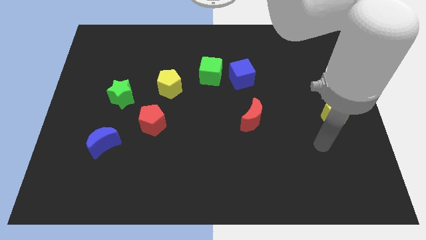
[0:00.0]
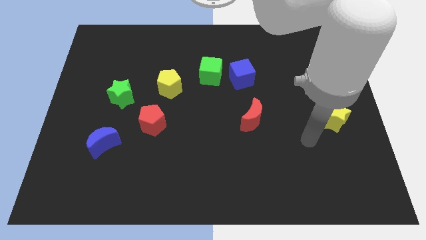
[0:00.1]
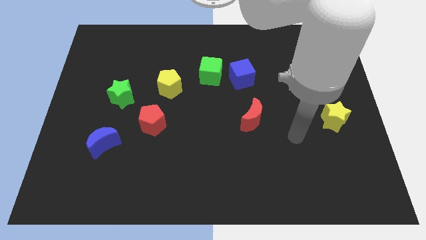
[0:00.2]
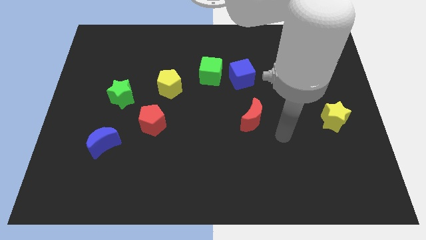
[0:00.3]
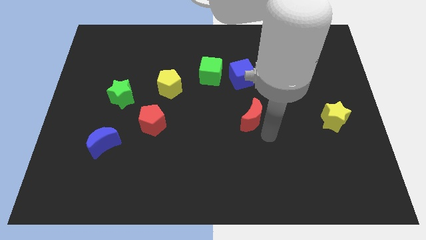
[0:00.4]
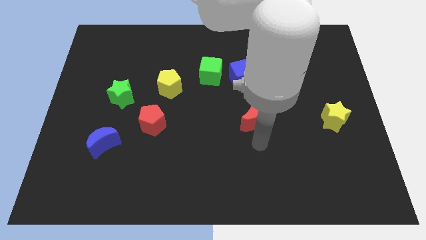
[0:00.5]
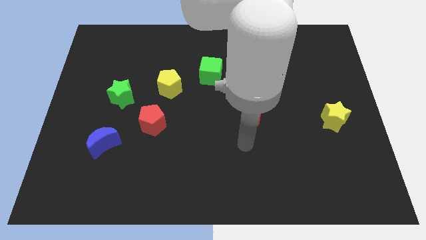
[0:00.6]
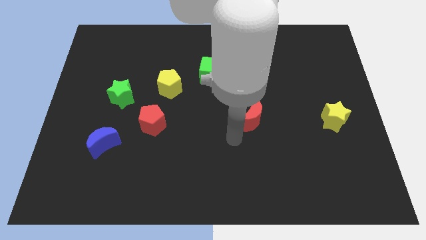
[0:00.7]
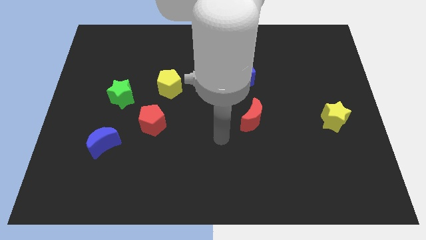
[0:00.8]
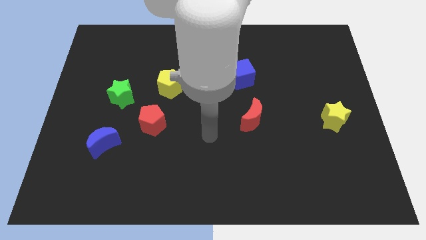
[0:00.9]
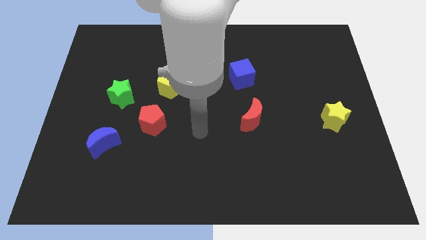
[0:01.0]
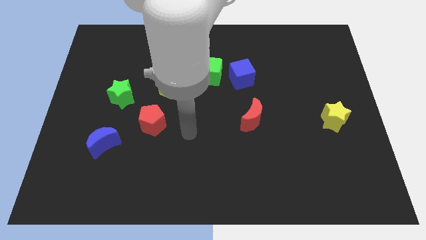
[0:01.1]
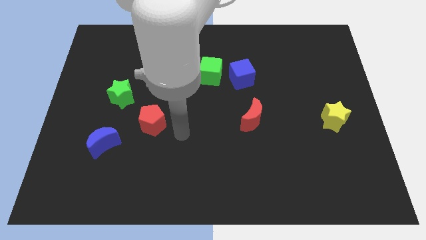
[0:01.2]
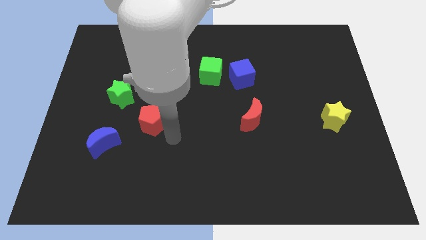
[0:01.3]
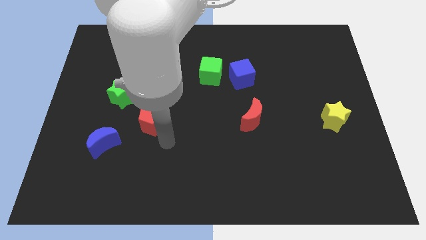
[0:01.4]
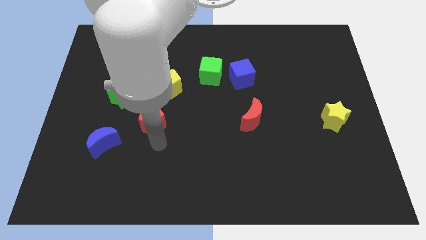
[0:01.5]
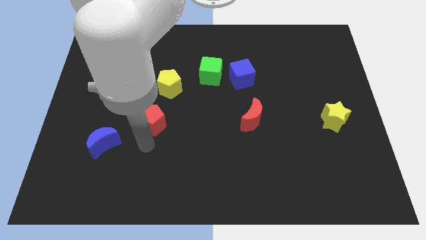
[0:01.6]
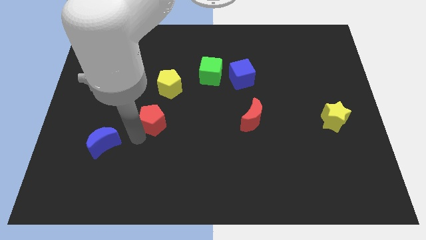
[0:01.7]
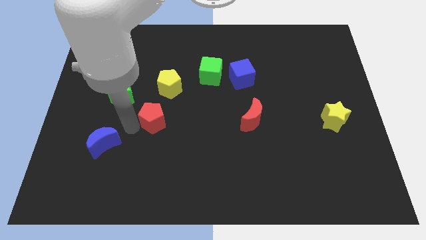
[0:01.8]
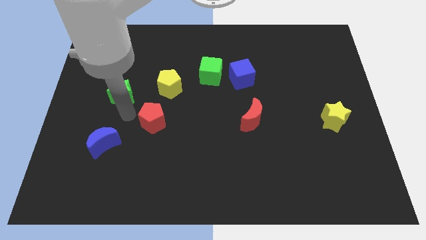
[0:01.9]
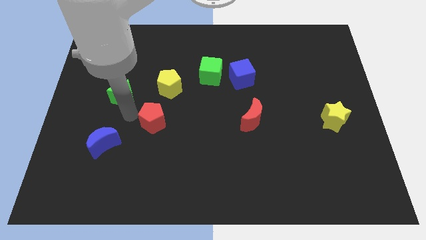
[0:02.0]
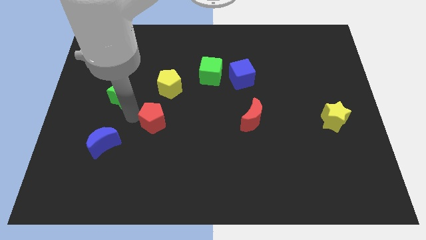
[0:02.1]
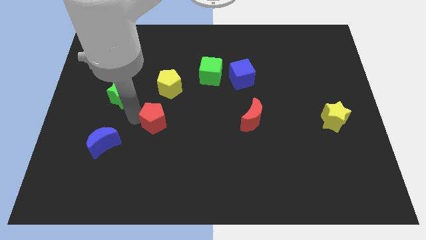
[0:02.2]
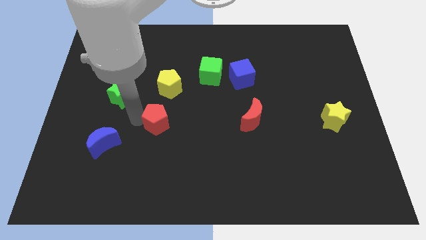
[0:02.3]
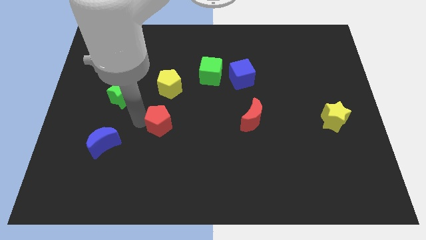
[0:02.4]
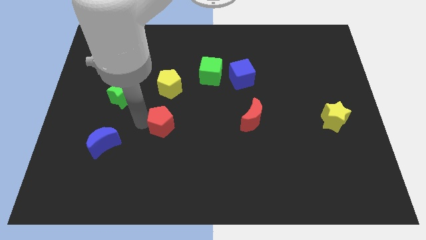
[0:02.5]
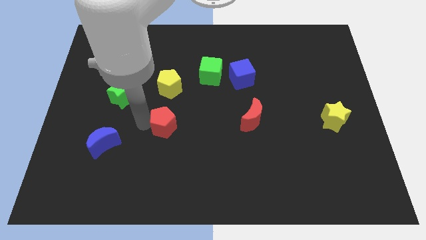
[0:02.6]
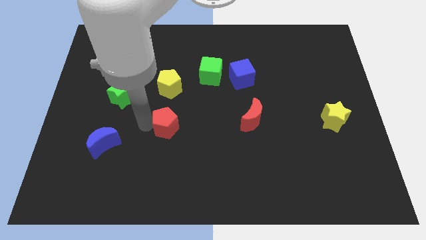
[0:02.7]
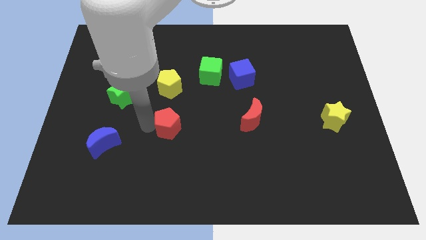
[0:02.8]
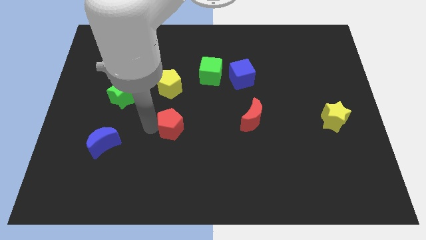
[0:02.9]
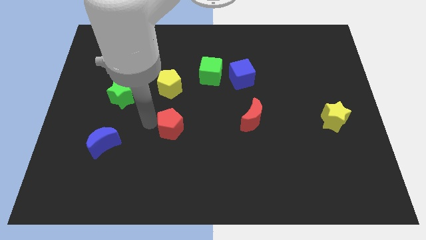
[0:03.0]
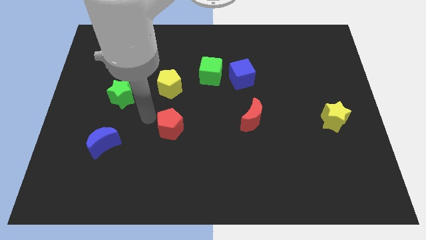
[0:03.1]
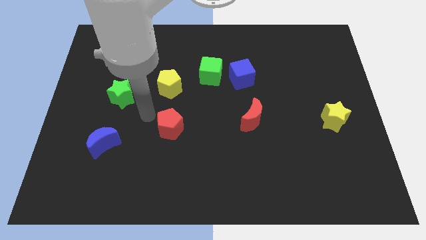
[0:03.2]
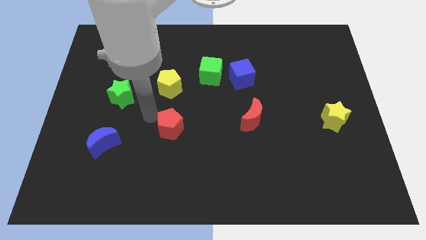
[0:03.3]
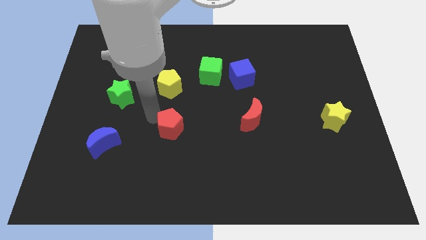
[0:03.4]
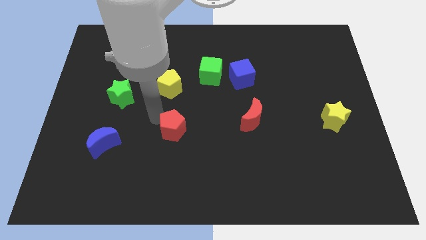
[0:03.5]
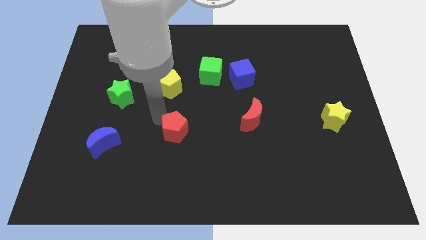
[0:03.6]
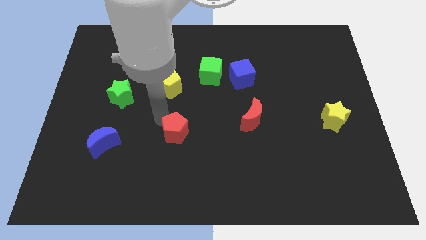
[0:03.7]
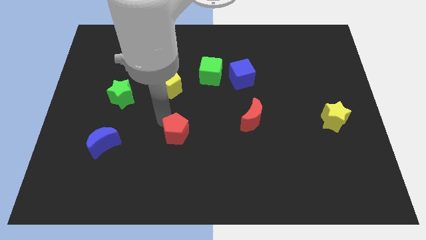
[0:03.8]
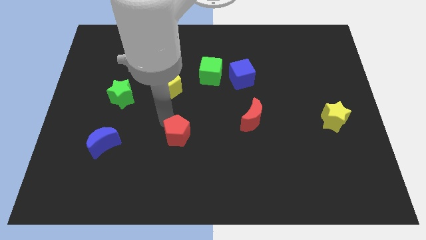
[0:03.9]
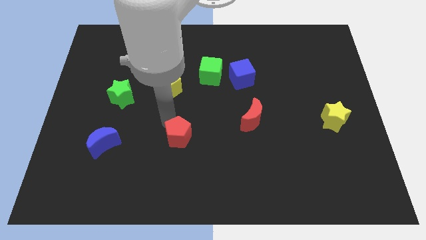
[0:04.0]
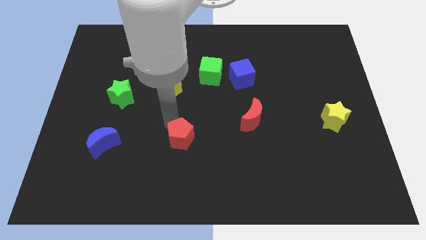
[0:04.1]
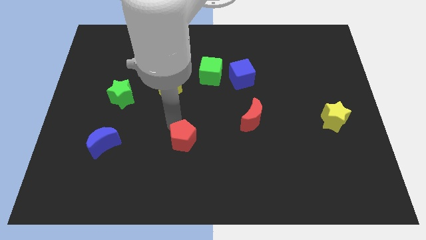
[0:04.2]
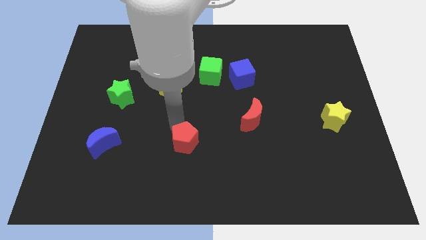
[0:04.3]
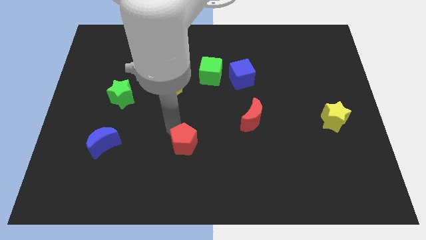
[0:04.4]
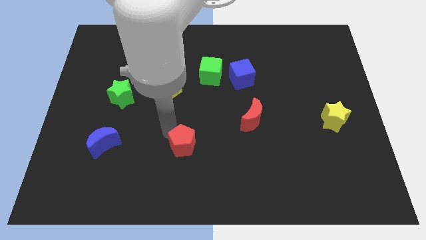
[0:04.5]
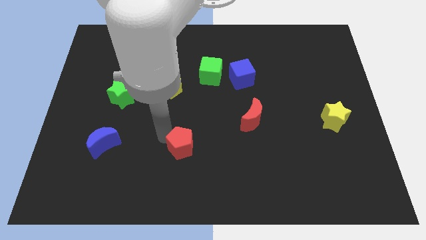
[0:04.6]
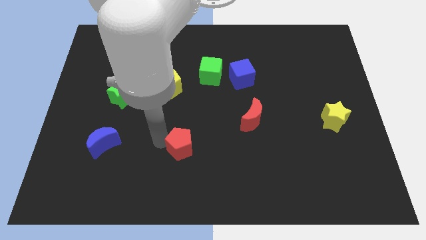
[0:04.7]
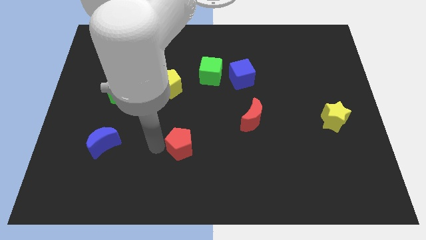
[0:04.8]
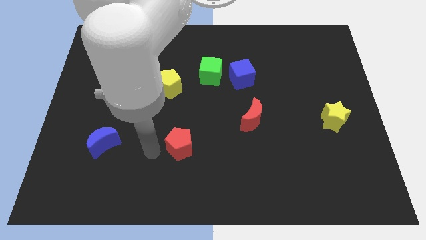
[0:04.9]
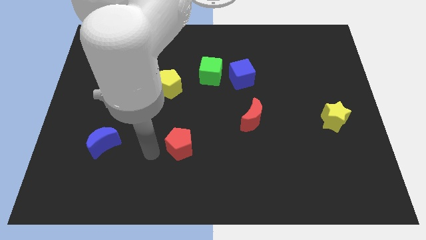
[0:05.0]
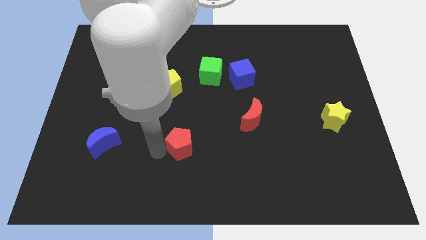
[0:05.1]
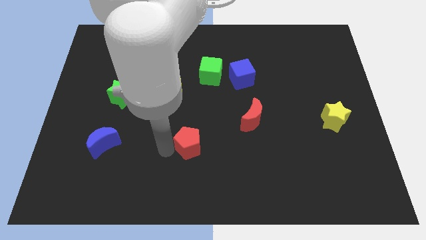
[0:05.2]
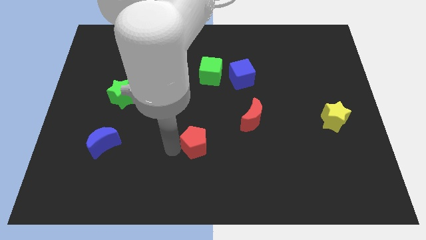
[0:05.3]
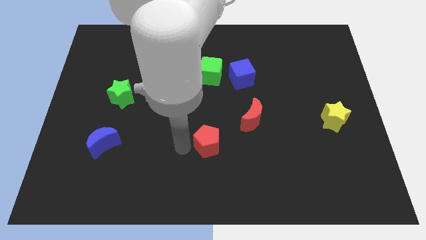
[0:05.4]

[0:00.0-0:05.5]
move the red pentagon to the bottom left of the red moon

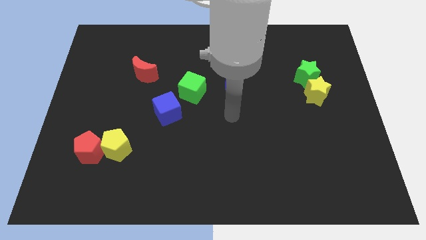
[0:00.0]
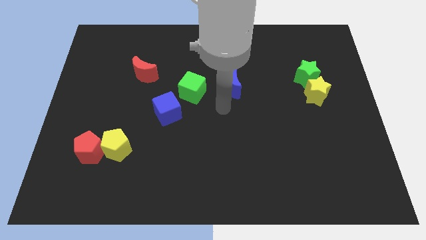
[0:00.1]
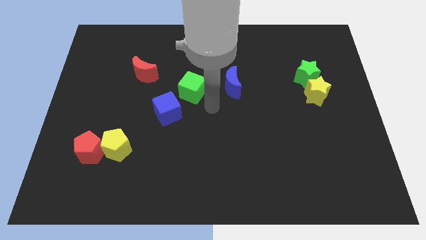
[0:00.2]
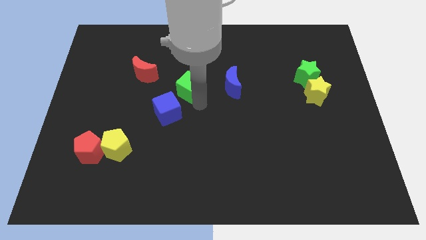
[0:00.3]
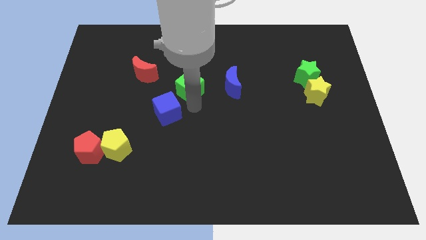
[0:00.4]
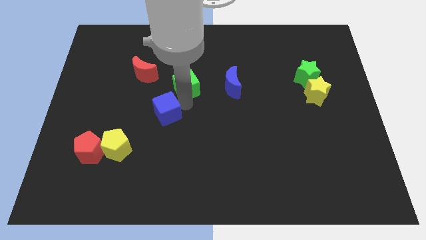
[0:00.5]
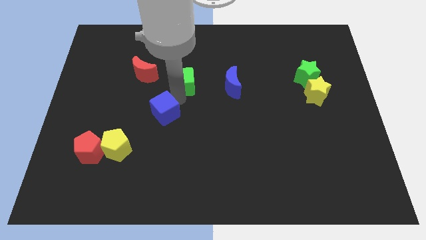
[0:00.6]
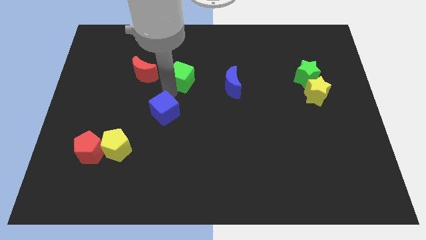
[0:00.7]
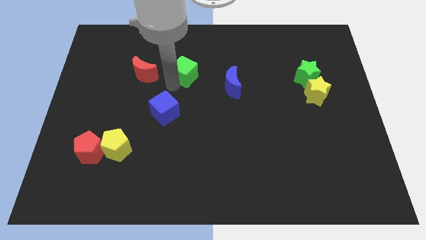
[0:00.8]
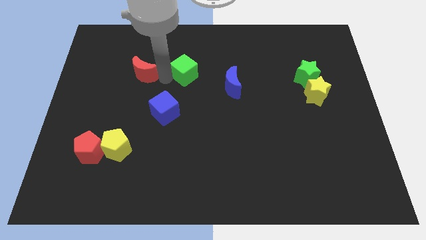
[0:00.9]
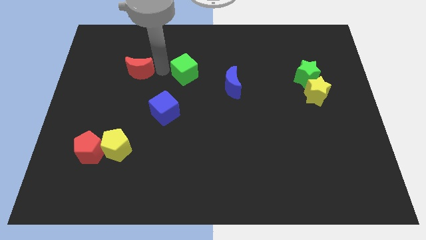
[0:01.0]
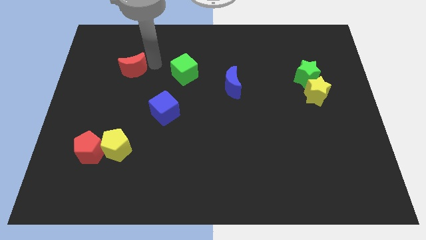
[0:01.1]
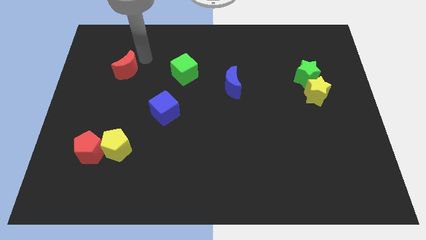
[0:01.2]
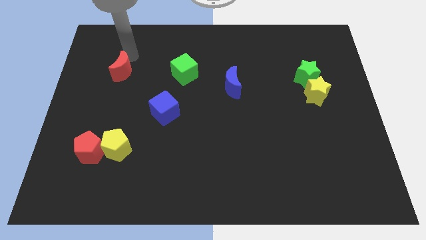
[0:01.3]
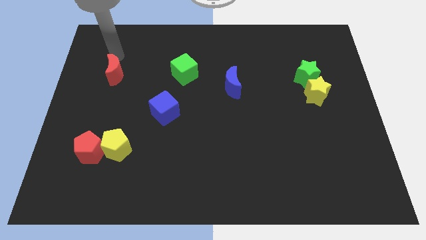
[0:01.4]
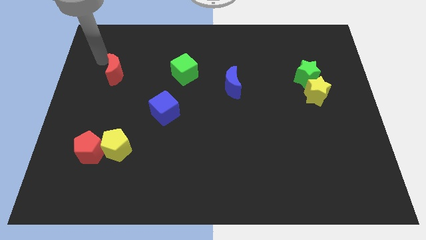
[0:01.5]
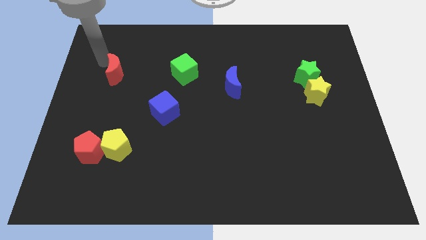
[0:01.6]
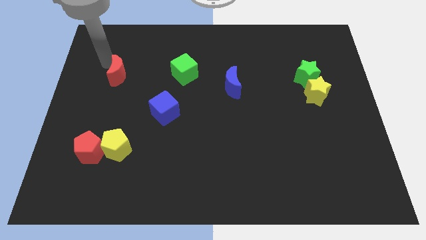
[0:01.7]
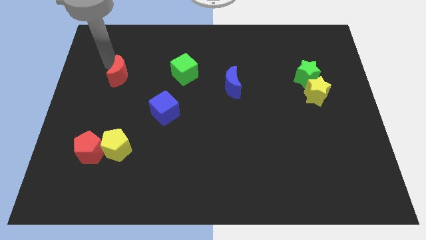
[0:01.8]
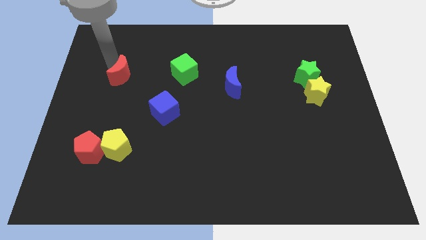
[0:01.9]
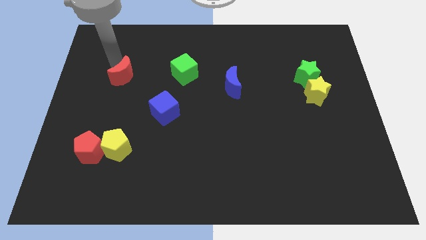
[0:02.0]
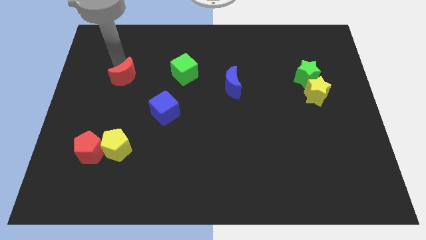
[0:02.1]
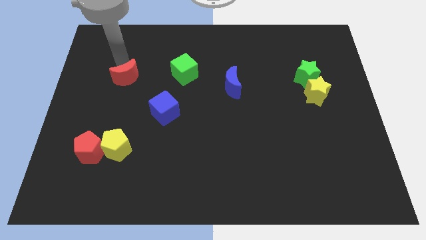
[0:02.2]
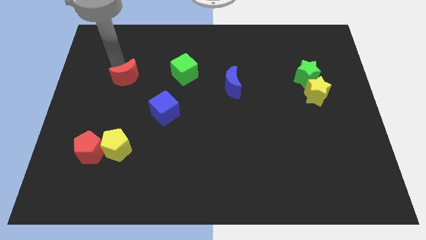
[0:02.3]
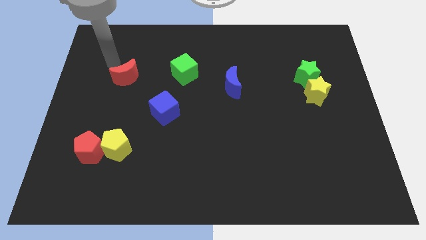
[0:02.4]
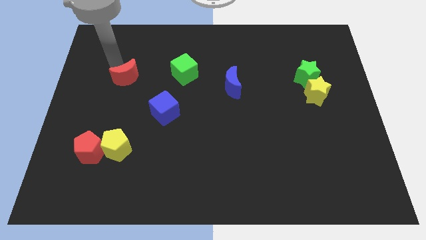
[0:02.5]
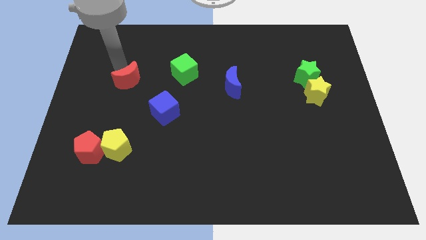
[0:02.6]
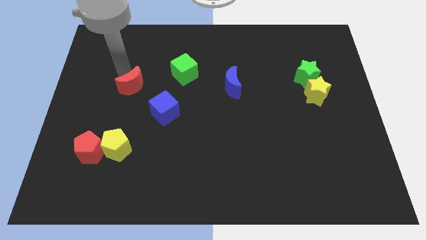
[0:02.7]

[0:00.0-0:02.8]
move the red moon diagonally up and to the left of the blue cube
